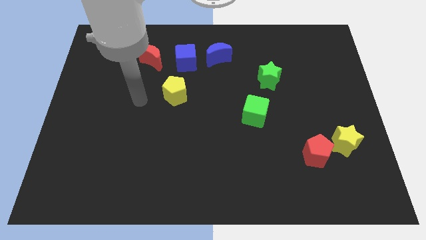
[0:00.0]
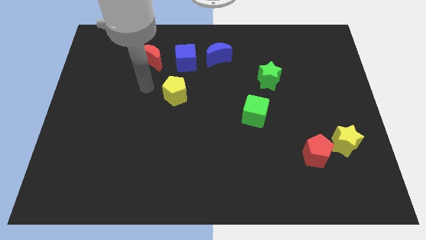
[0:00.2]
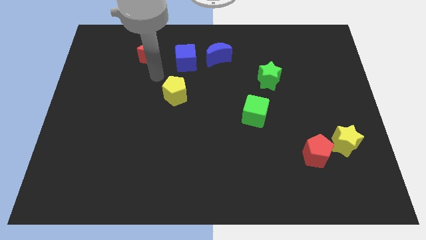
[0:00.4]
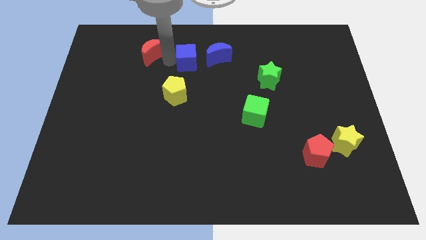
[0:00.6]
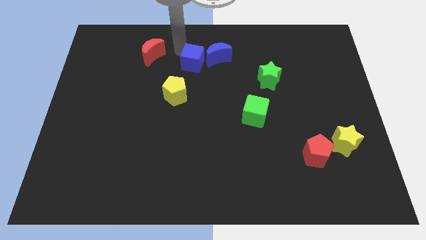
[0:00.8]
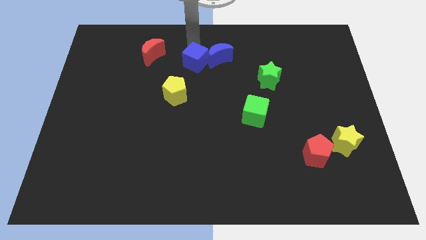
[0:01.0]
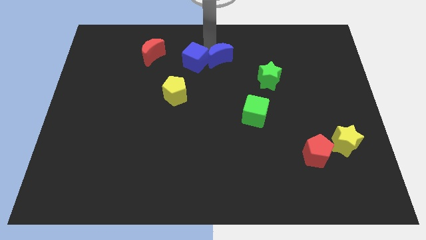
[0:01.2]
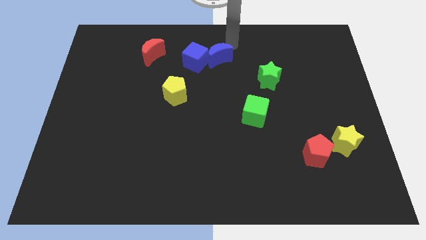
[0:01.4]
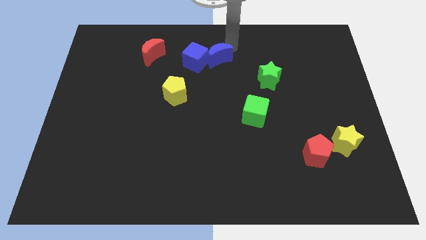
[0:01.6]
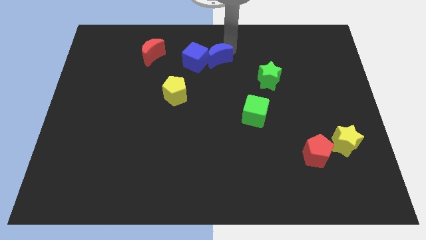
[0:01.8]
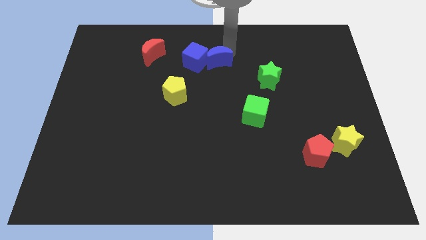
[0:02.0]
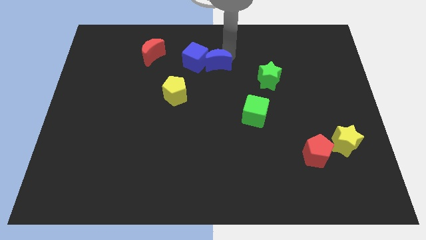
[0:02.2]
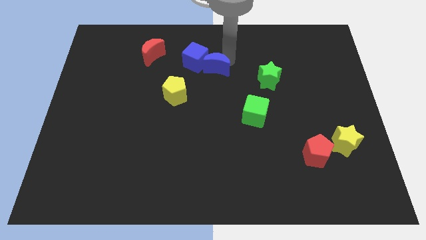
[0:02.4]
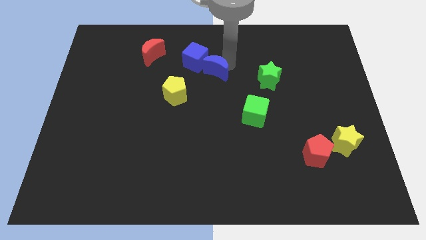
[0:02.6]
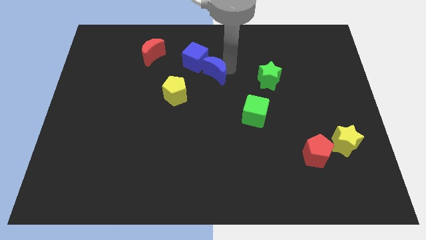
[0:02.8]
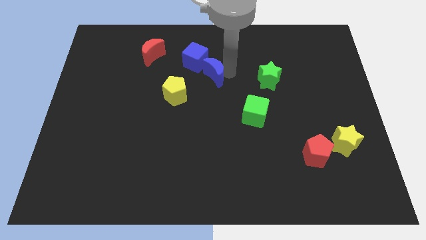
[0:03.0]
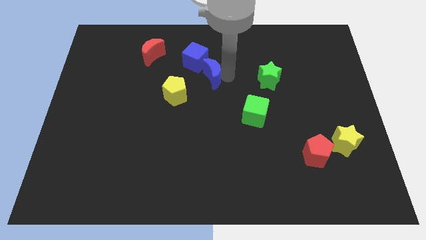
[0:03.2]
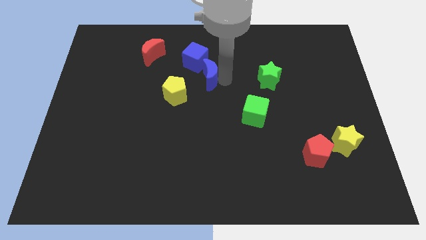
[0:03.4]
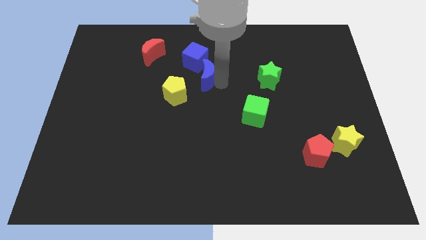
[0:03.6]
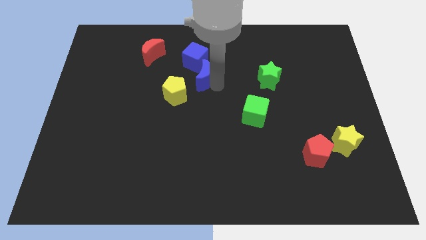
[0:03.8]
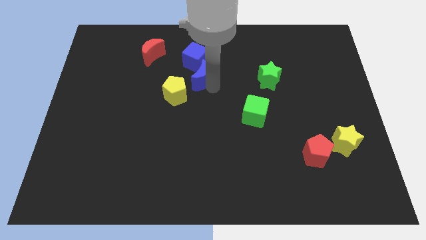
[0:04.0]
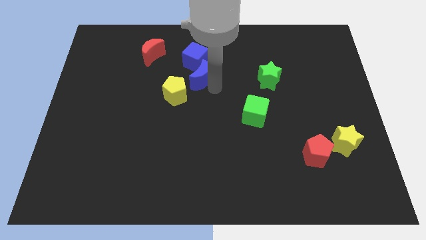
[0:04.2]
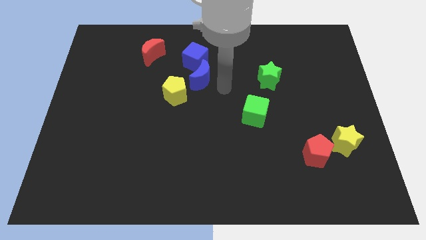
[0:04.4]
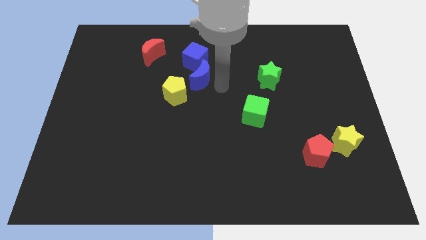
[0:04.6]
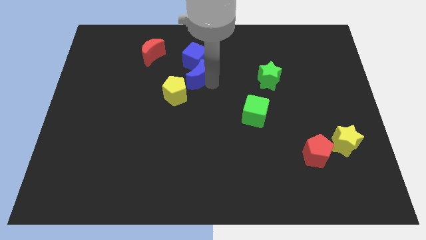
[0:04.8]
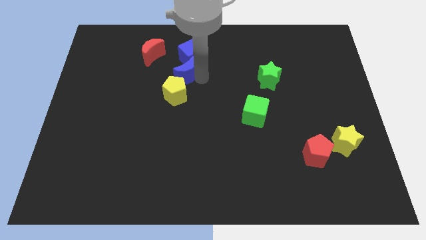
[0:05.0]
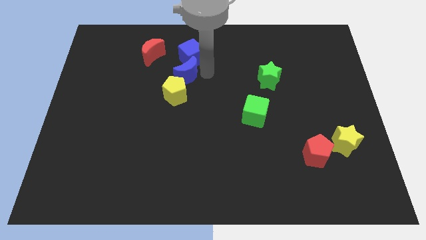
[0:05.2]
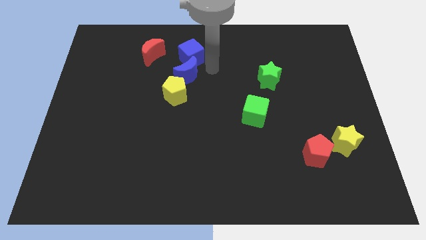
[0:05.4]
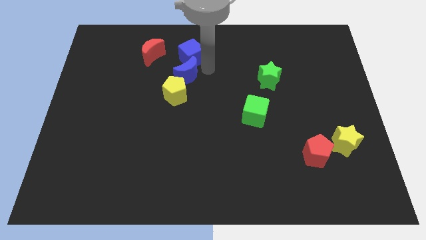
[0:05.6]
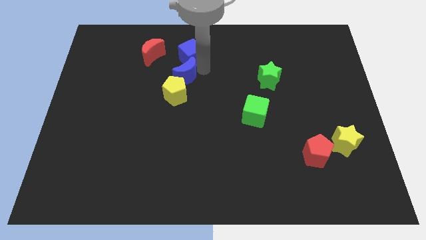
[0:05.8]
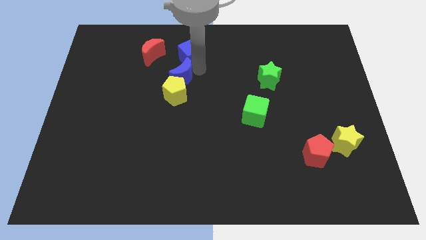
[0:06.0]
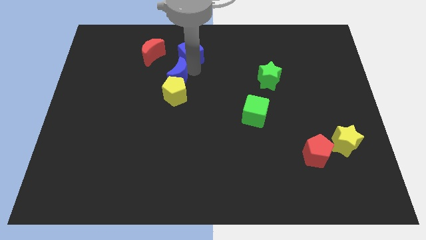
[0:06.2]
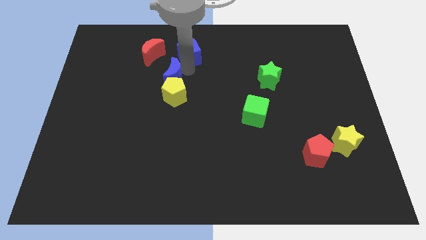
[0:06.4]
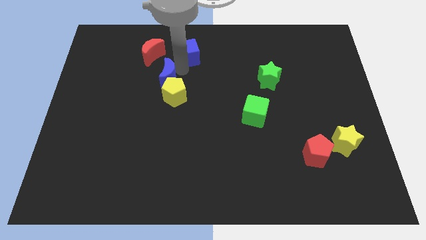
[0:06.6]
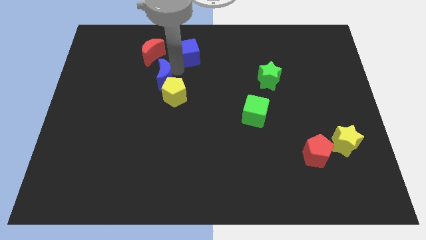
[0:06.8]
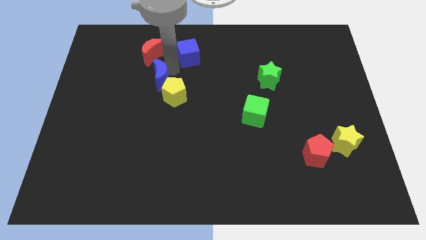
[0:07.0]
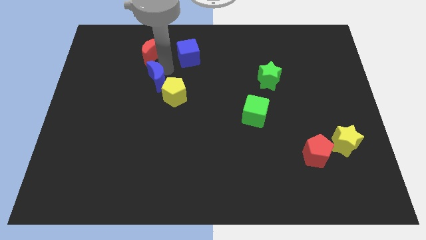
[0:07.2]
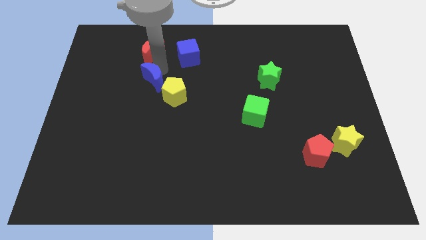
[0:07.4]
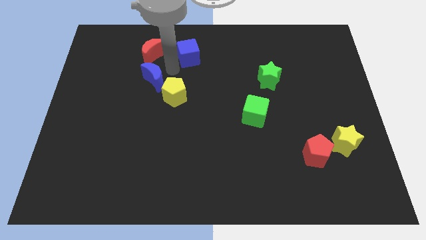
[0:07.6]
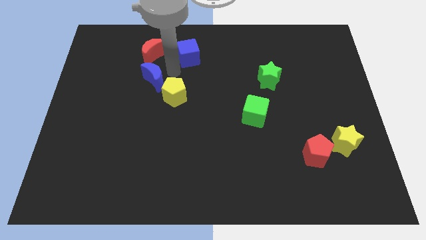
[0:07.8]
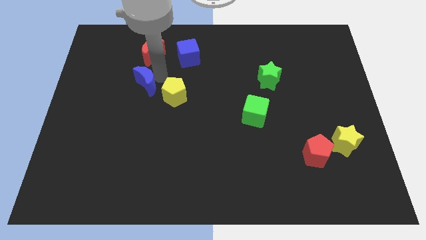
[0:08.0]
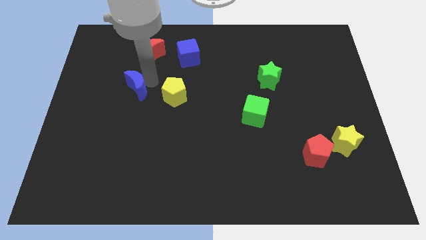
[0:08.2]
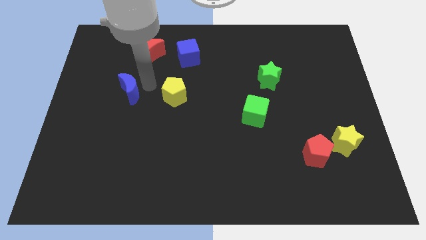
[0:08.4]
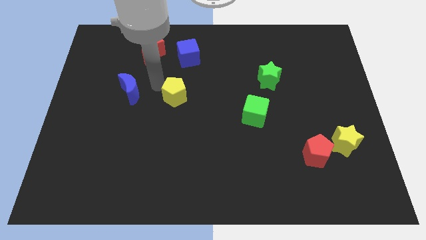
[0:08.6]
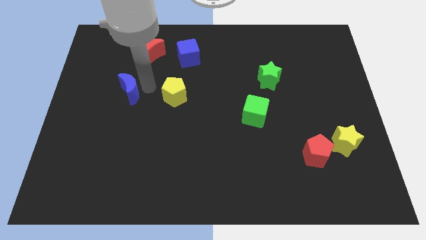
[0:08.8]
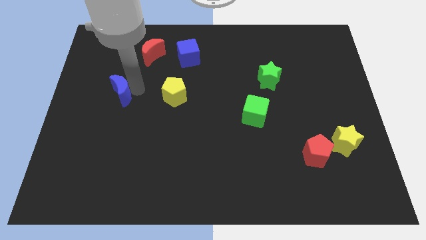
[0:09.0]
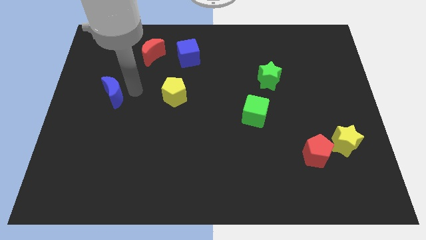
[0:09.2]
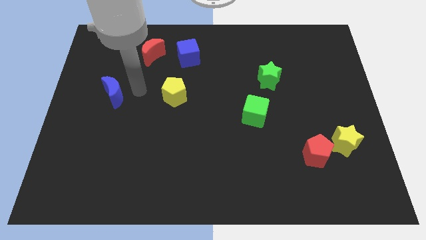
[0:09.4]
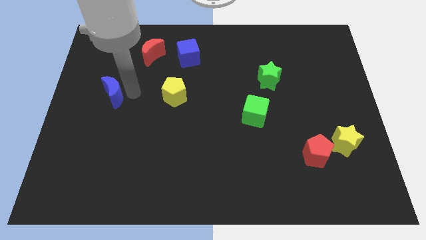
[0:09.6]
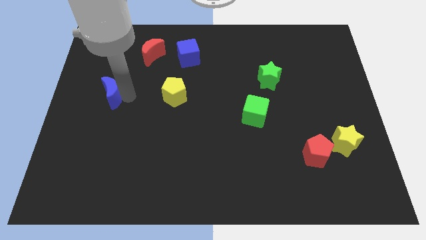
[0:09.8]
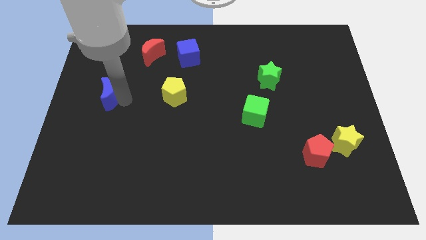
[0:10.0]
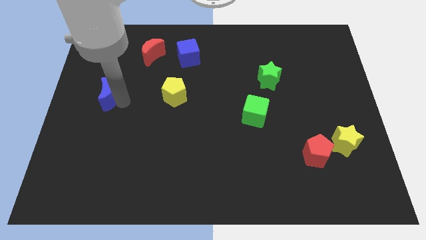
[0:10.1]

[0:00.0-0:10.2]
put the blue moon to the center left

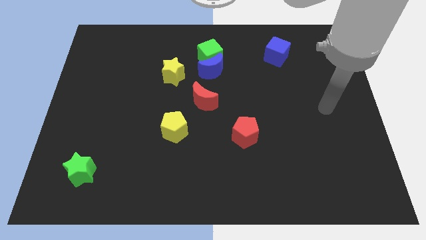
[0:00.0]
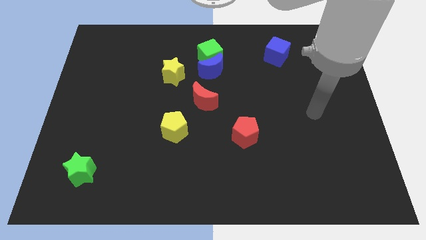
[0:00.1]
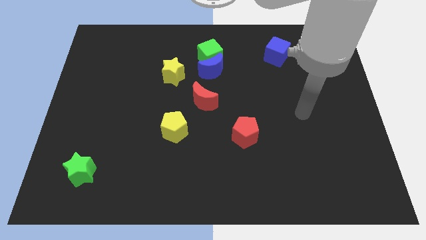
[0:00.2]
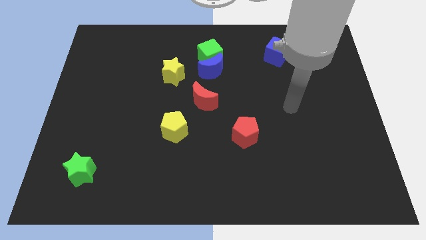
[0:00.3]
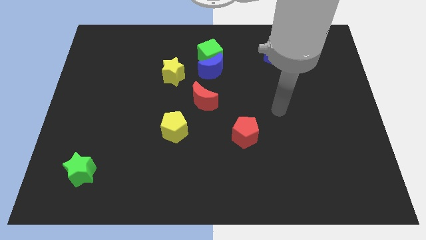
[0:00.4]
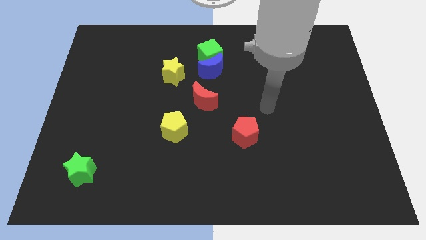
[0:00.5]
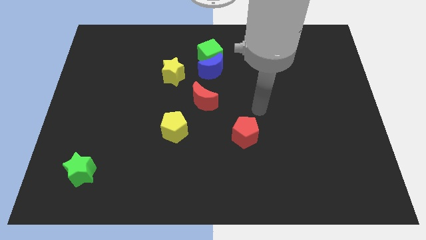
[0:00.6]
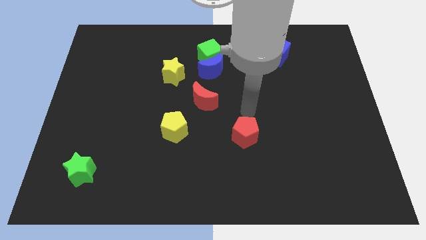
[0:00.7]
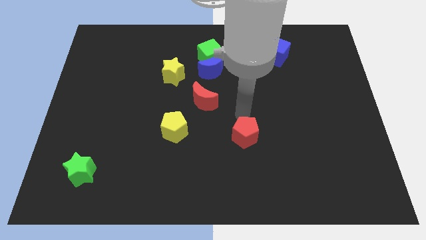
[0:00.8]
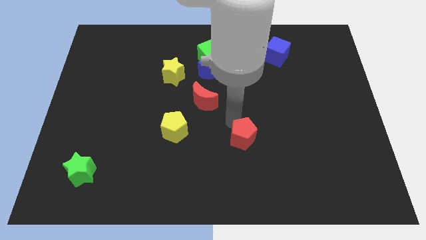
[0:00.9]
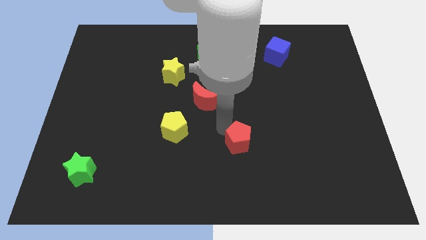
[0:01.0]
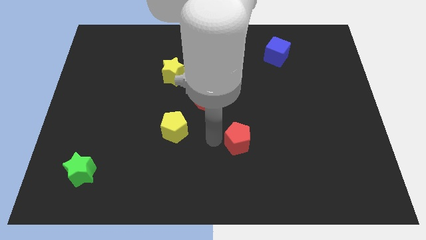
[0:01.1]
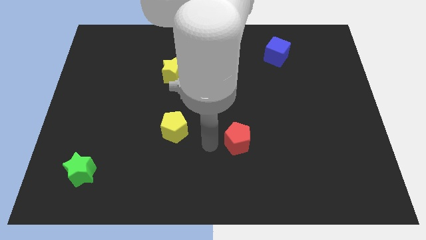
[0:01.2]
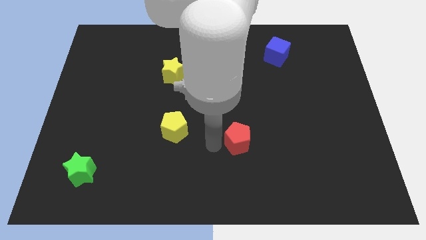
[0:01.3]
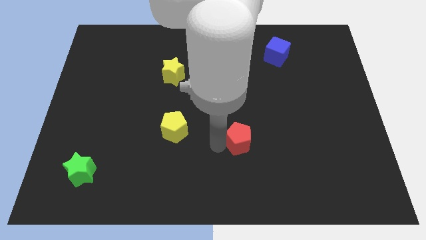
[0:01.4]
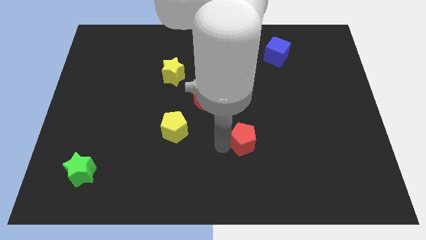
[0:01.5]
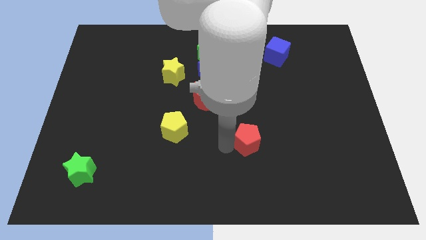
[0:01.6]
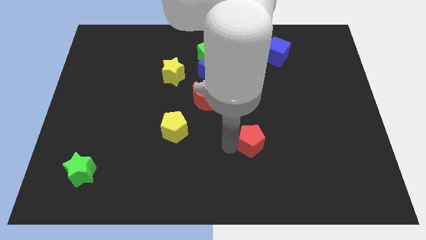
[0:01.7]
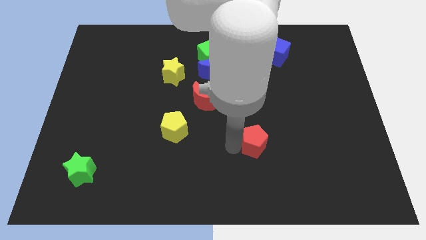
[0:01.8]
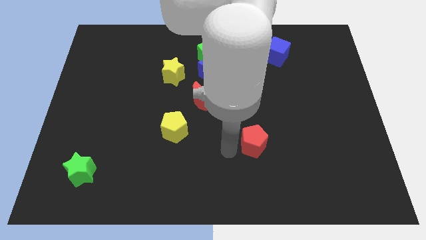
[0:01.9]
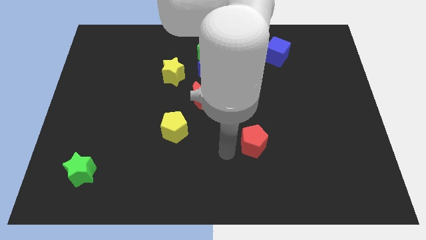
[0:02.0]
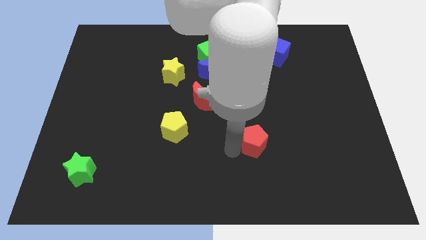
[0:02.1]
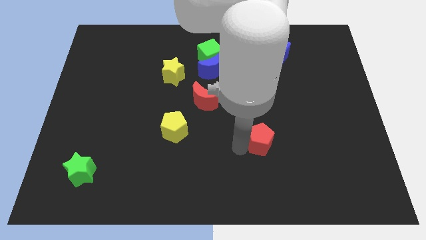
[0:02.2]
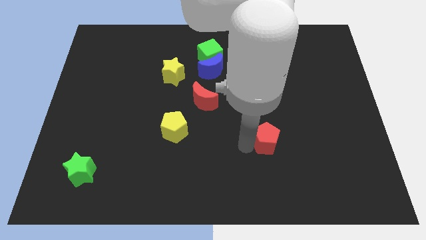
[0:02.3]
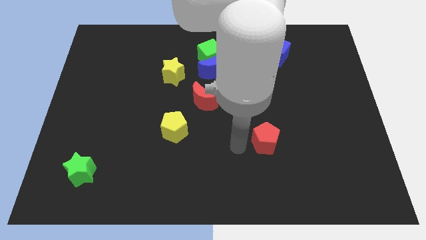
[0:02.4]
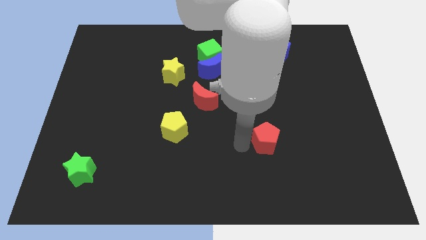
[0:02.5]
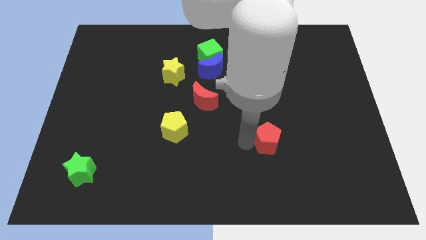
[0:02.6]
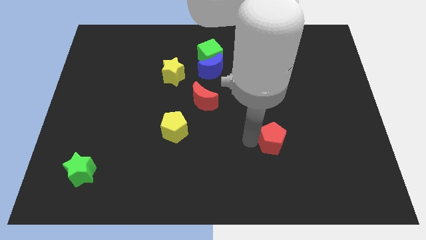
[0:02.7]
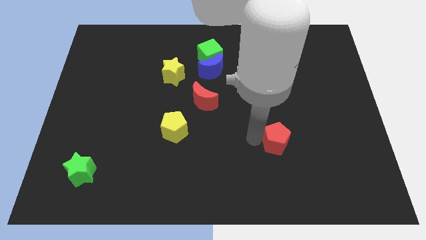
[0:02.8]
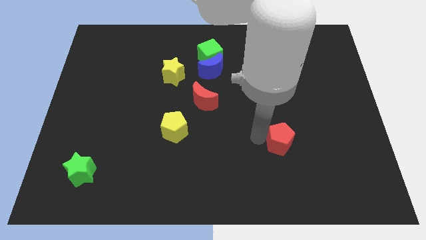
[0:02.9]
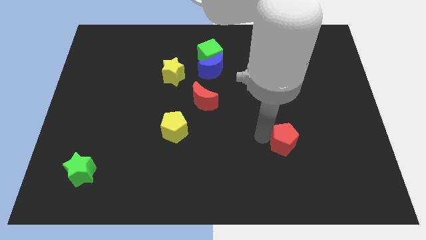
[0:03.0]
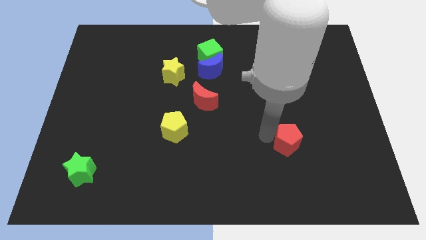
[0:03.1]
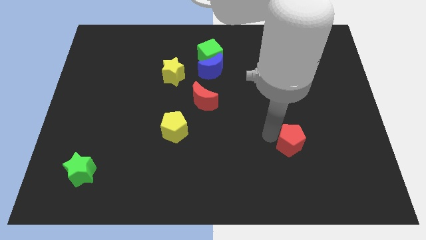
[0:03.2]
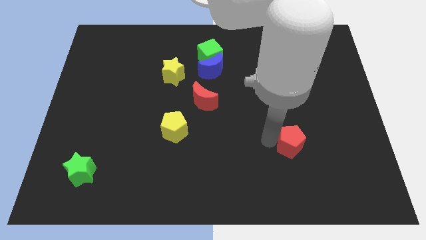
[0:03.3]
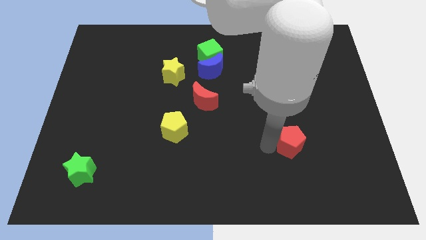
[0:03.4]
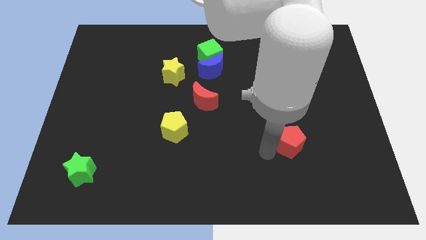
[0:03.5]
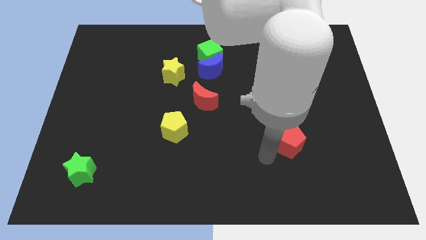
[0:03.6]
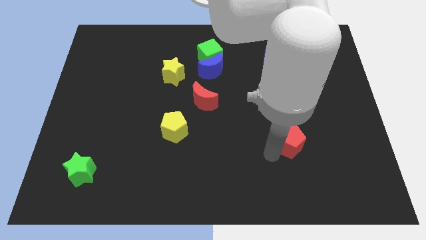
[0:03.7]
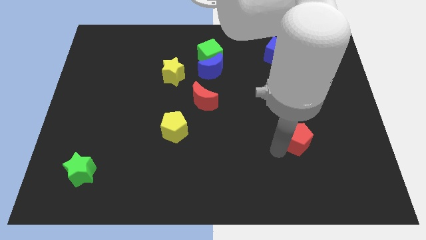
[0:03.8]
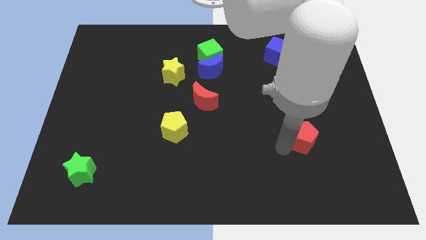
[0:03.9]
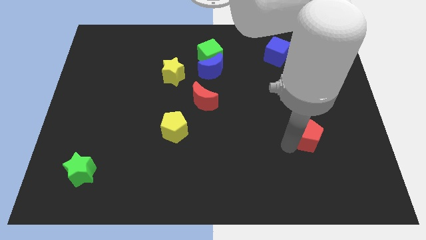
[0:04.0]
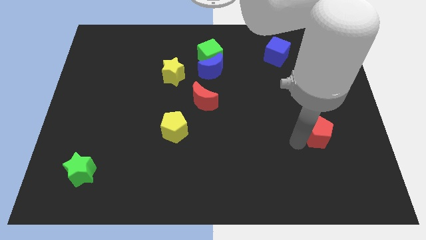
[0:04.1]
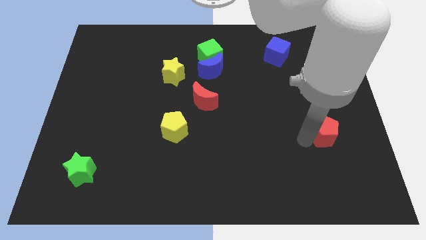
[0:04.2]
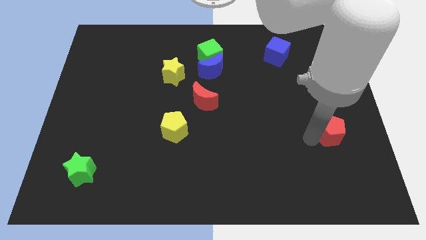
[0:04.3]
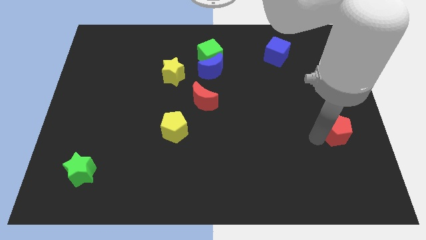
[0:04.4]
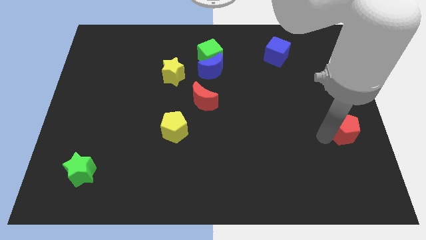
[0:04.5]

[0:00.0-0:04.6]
push the red pentagon to the center right
